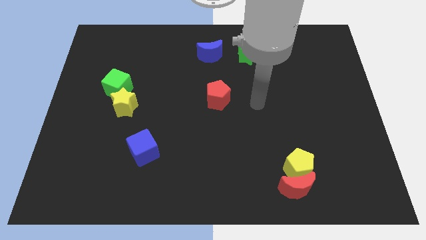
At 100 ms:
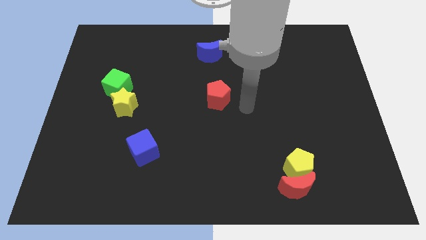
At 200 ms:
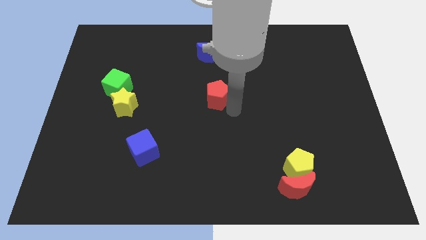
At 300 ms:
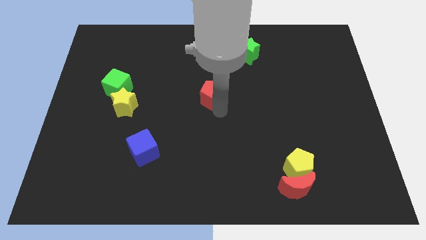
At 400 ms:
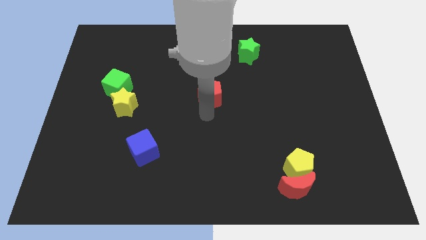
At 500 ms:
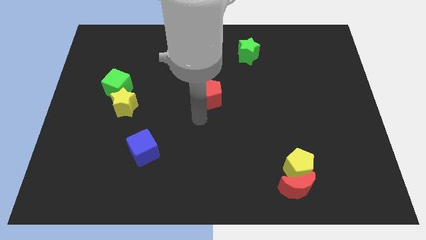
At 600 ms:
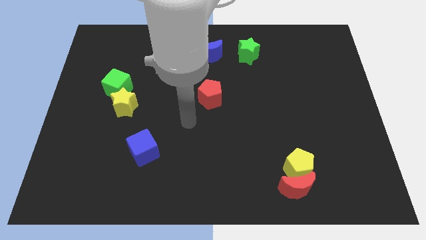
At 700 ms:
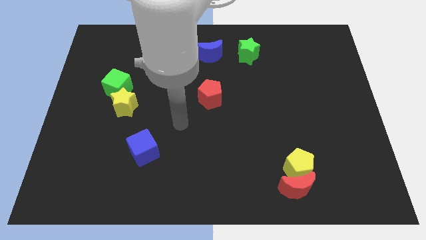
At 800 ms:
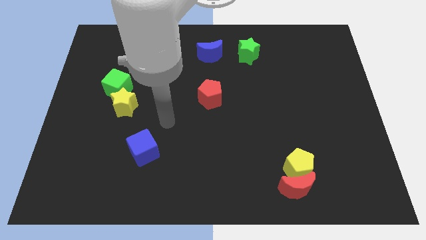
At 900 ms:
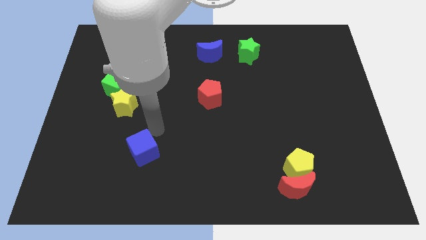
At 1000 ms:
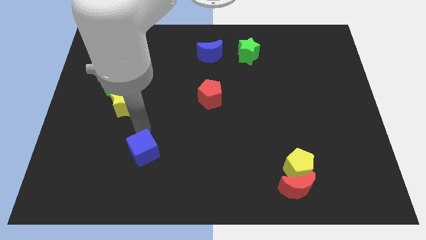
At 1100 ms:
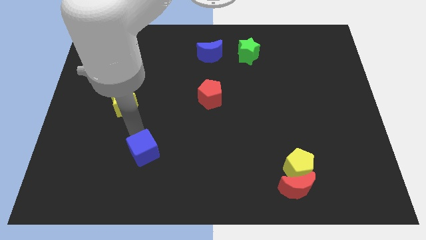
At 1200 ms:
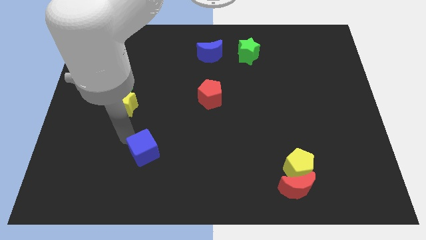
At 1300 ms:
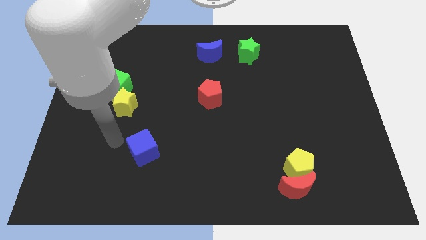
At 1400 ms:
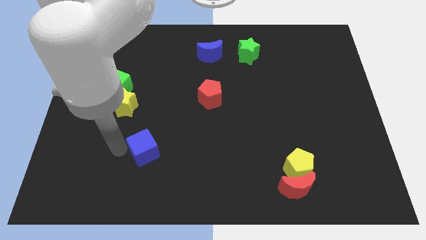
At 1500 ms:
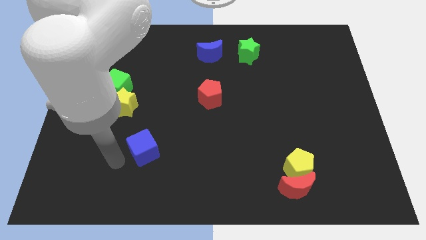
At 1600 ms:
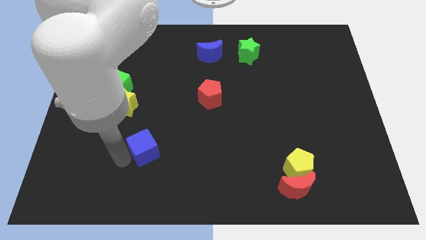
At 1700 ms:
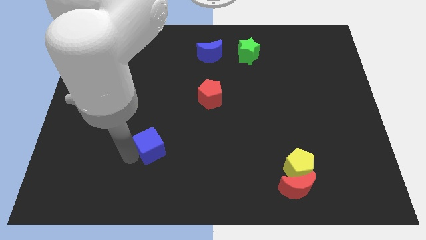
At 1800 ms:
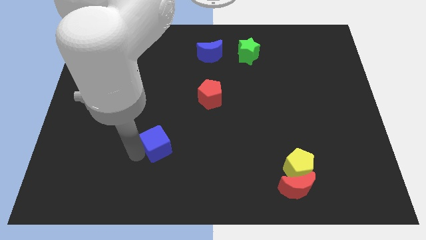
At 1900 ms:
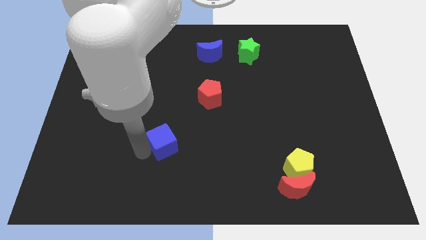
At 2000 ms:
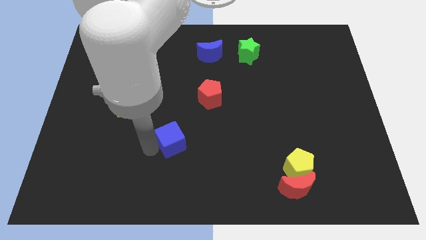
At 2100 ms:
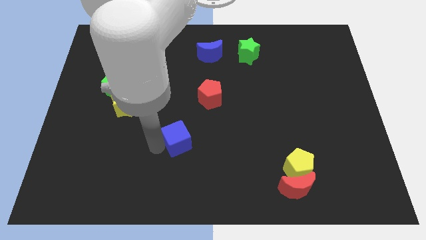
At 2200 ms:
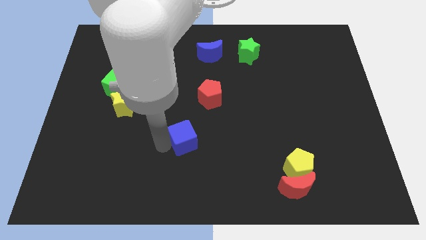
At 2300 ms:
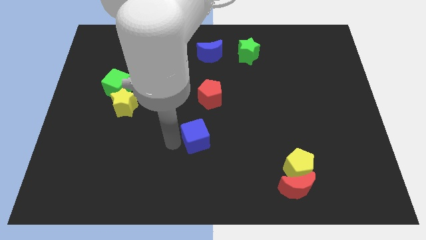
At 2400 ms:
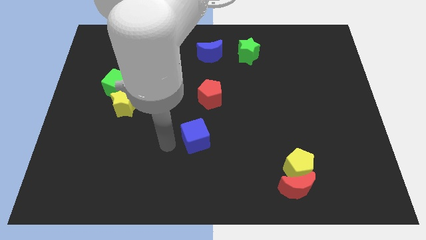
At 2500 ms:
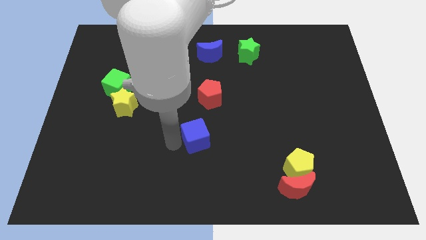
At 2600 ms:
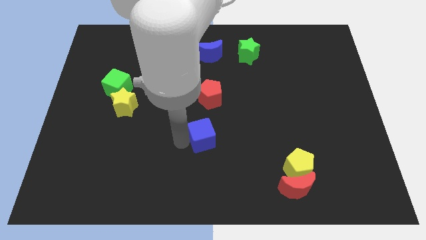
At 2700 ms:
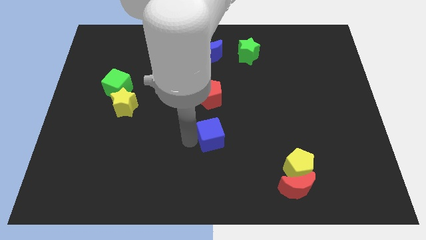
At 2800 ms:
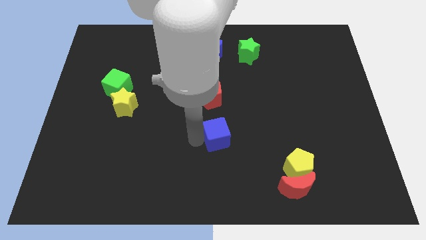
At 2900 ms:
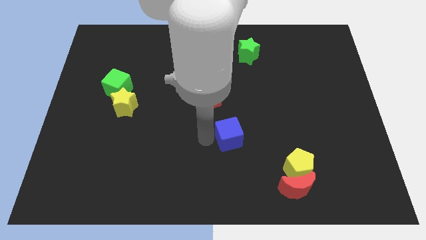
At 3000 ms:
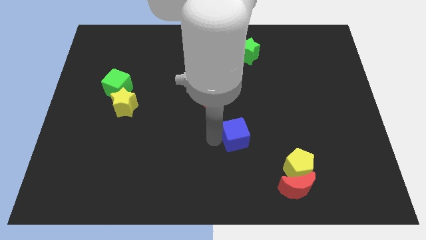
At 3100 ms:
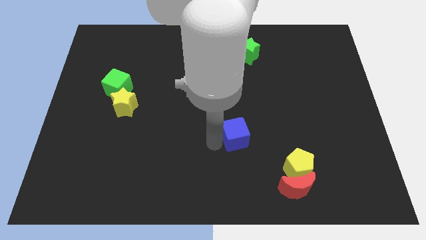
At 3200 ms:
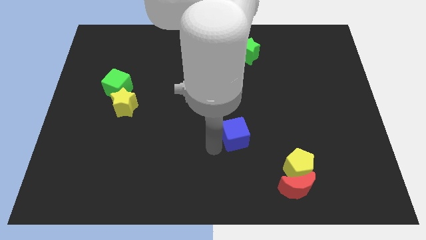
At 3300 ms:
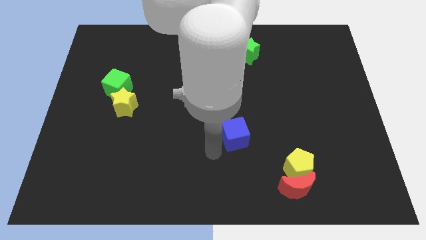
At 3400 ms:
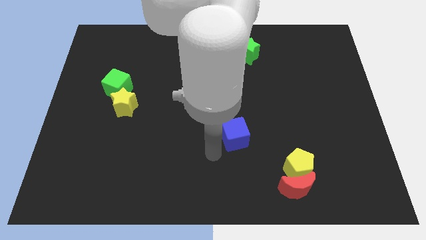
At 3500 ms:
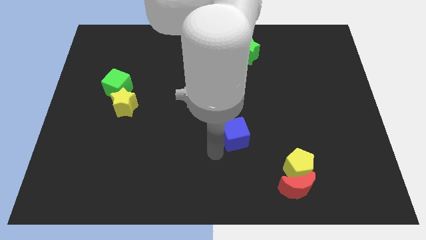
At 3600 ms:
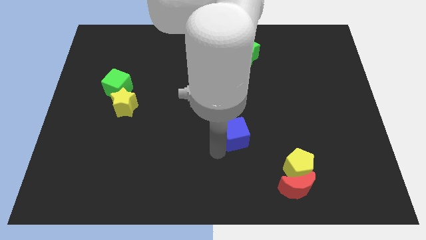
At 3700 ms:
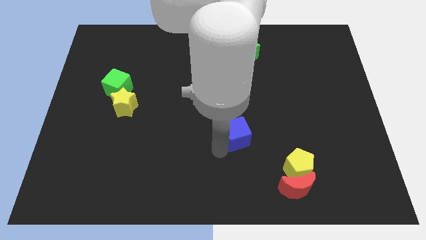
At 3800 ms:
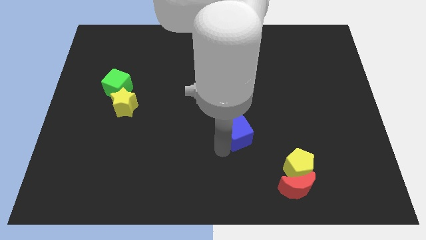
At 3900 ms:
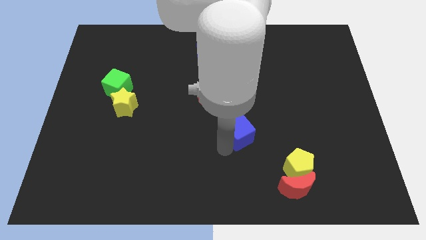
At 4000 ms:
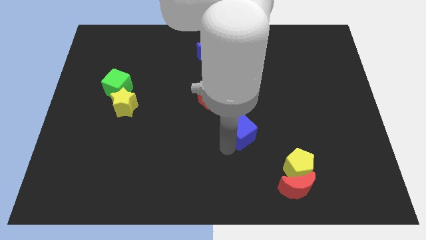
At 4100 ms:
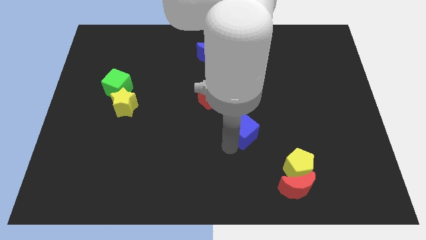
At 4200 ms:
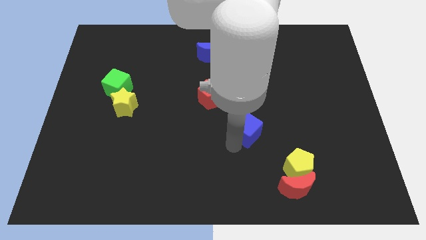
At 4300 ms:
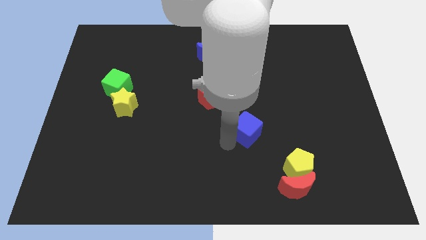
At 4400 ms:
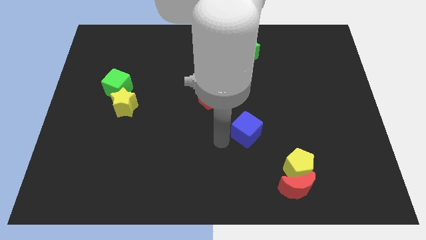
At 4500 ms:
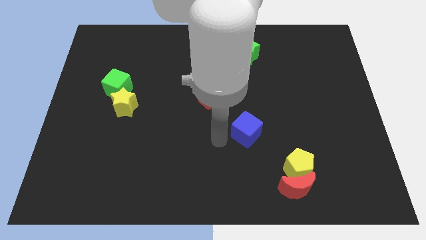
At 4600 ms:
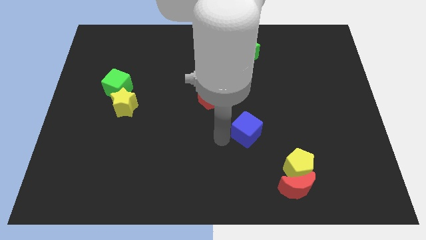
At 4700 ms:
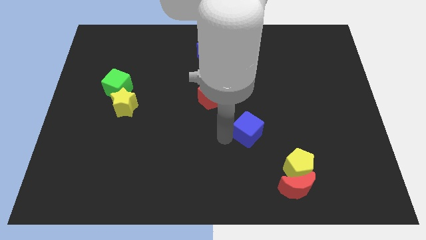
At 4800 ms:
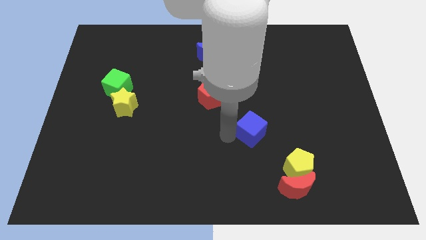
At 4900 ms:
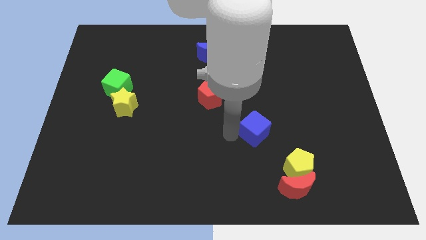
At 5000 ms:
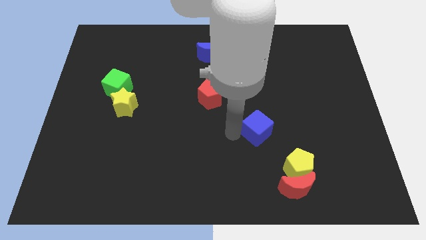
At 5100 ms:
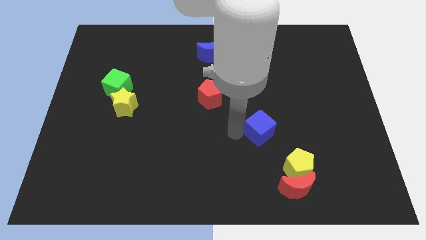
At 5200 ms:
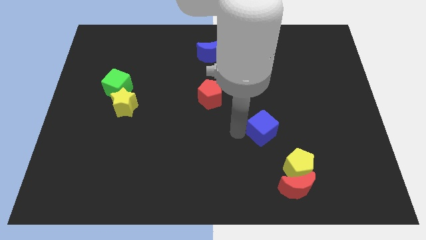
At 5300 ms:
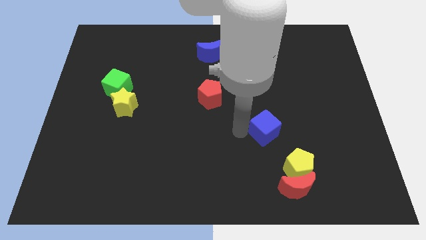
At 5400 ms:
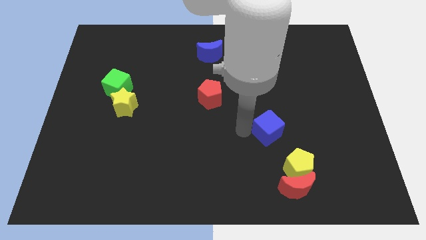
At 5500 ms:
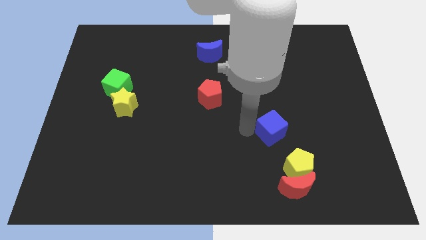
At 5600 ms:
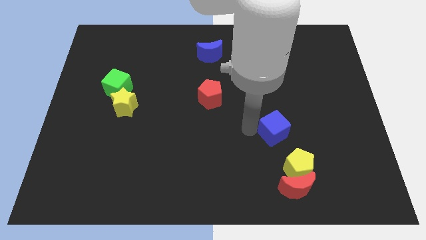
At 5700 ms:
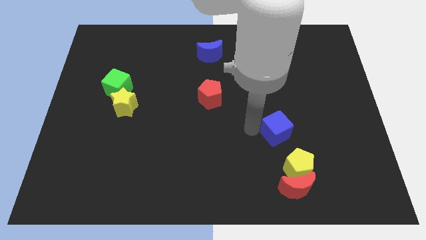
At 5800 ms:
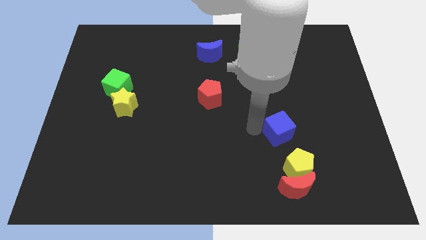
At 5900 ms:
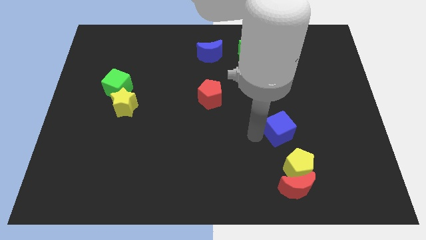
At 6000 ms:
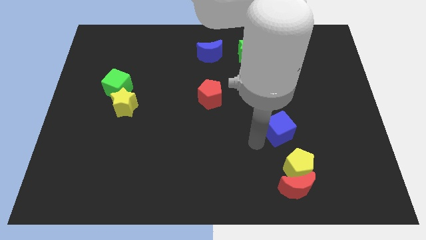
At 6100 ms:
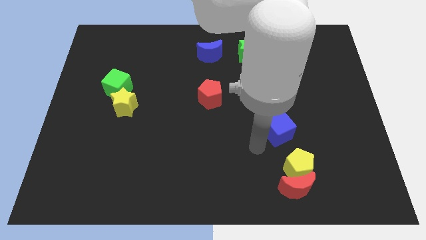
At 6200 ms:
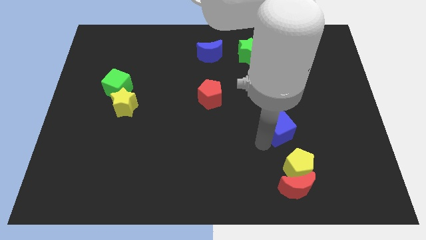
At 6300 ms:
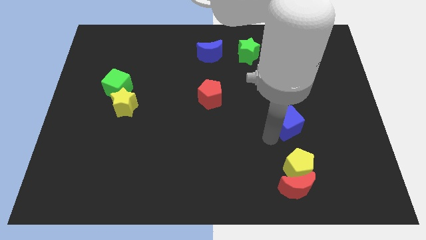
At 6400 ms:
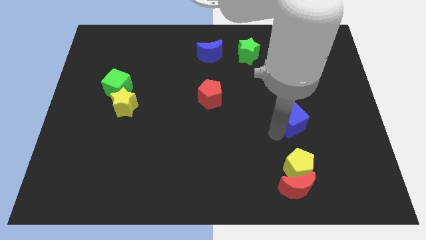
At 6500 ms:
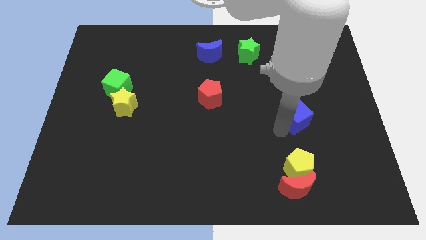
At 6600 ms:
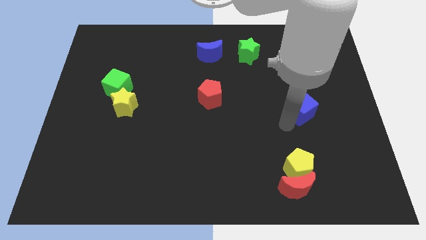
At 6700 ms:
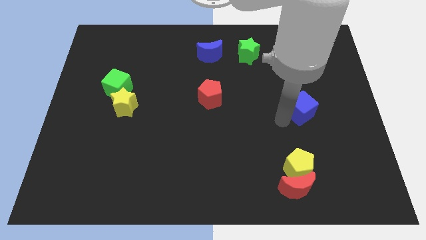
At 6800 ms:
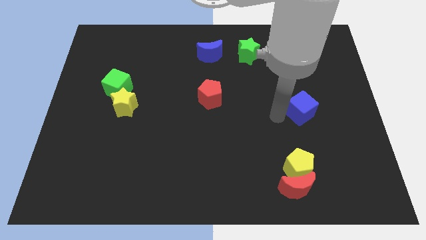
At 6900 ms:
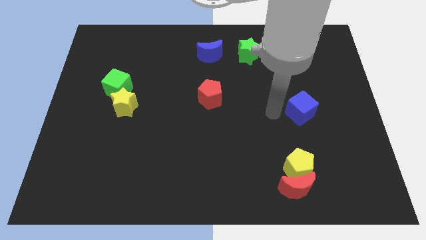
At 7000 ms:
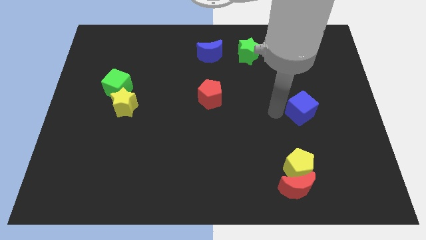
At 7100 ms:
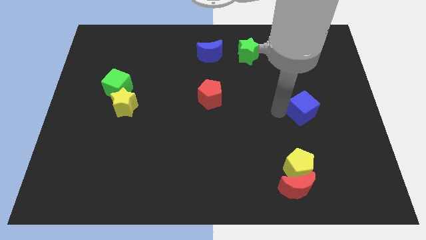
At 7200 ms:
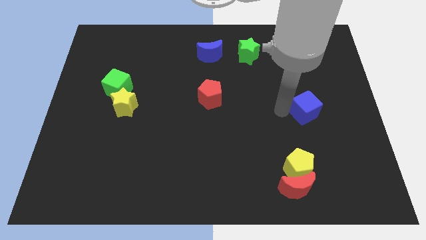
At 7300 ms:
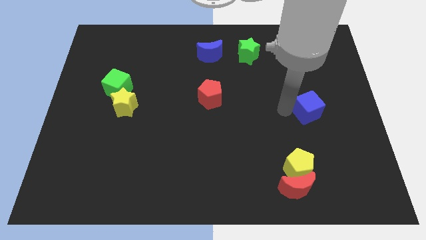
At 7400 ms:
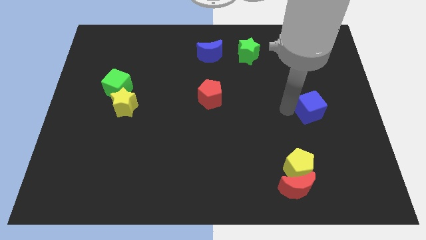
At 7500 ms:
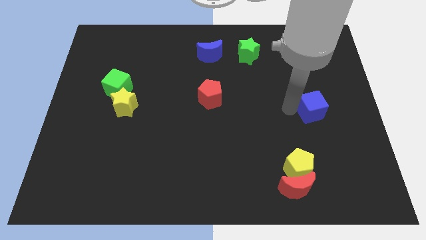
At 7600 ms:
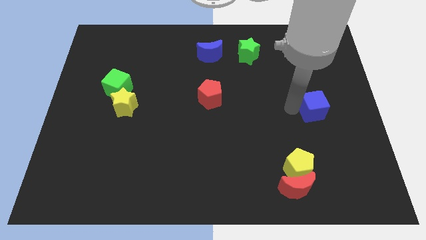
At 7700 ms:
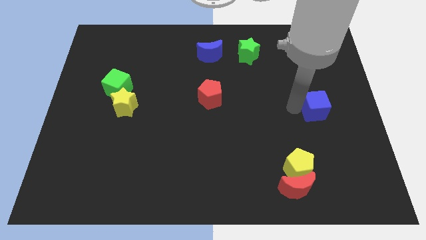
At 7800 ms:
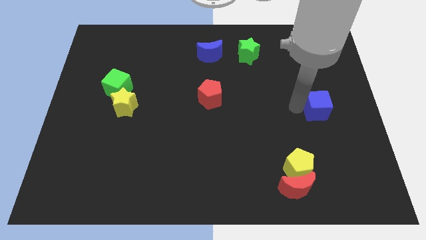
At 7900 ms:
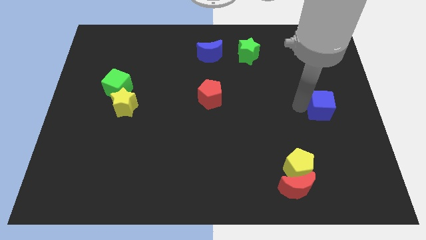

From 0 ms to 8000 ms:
put the blue cube to the center right
